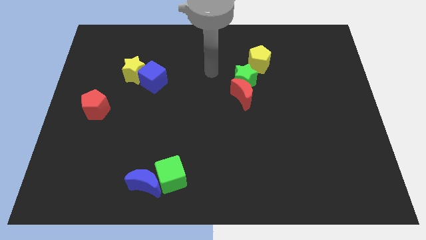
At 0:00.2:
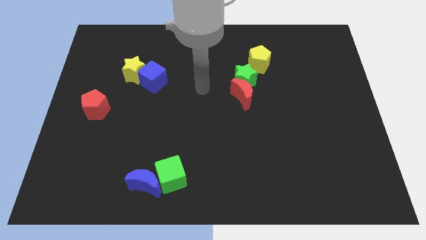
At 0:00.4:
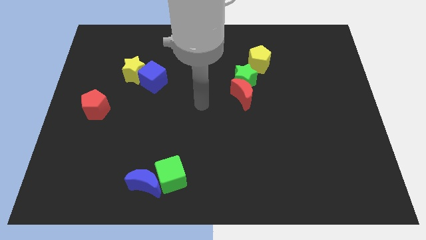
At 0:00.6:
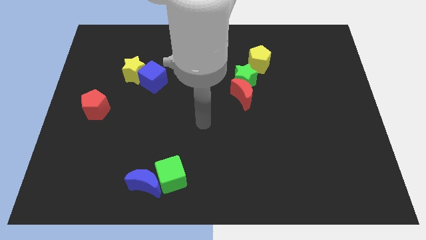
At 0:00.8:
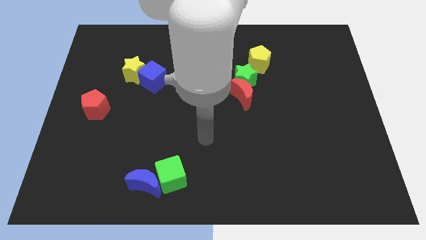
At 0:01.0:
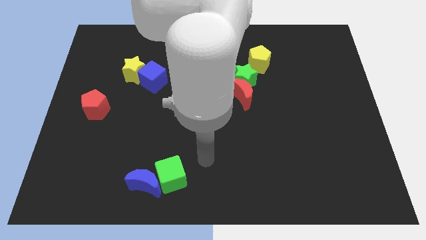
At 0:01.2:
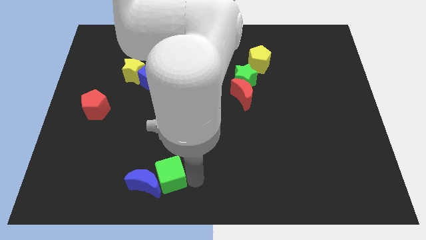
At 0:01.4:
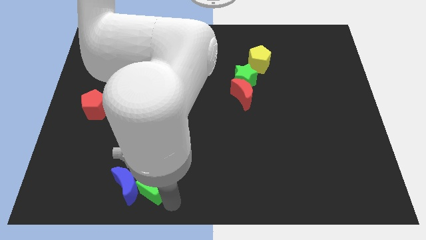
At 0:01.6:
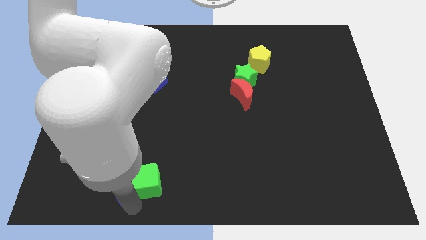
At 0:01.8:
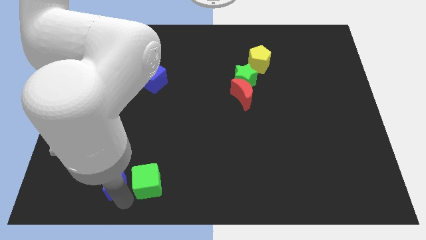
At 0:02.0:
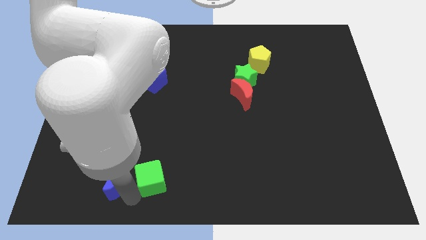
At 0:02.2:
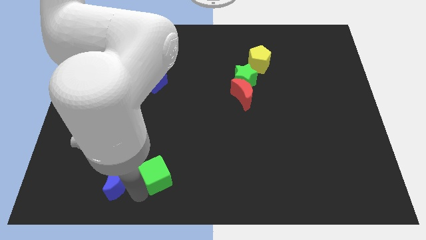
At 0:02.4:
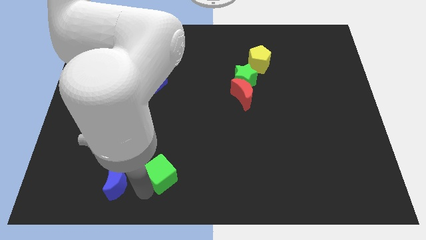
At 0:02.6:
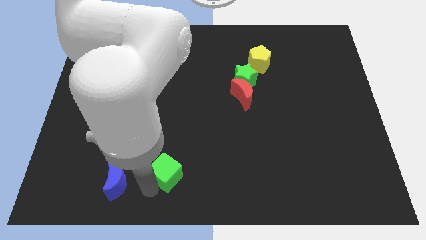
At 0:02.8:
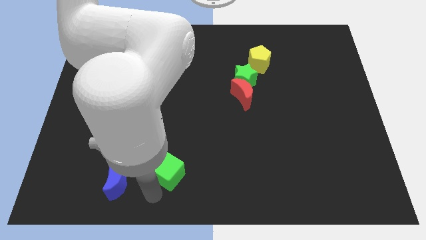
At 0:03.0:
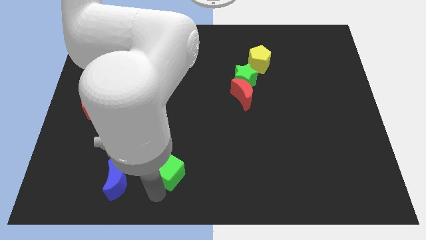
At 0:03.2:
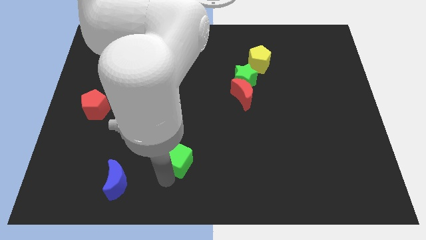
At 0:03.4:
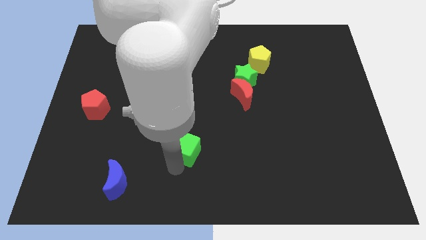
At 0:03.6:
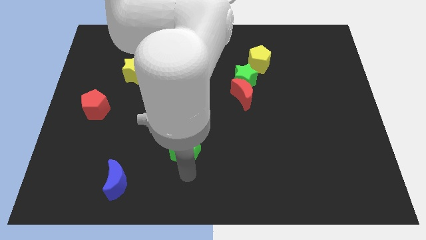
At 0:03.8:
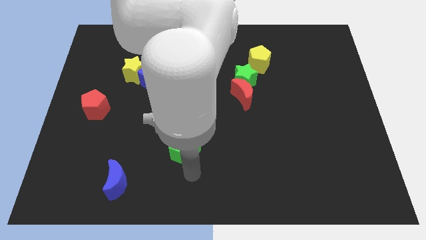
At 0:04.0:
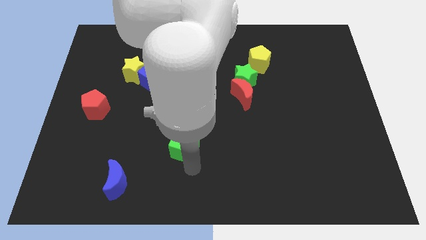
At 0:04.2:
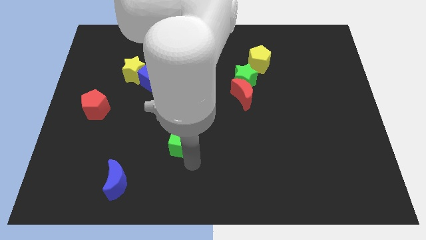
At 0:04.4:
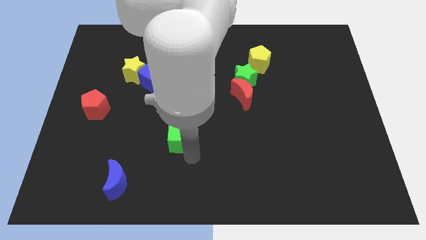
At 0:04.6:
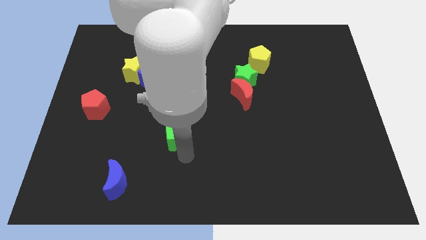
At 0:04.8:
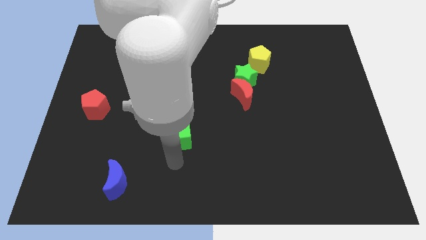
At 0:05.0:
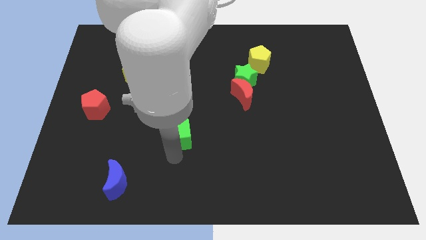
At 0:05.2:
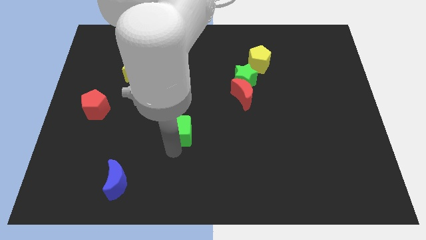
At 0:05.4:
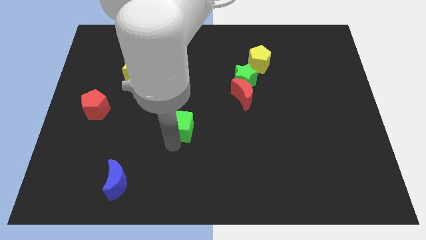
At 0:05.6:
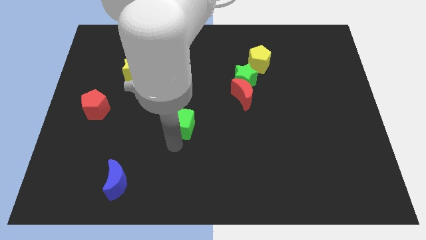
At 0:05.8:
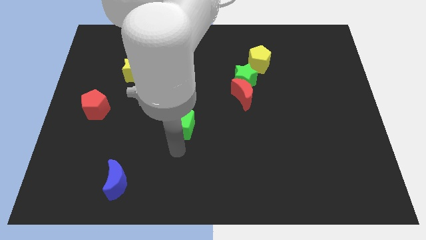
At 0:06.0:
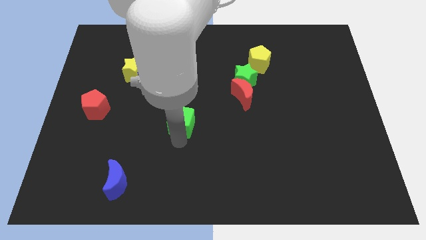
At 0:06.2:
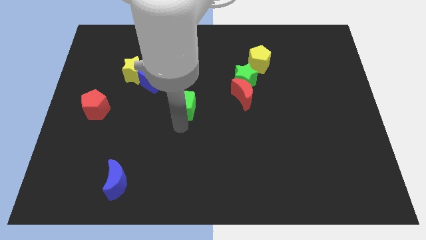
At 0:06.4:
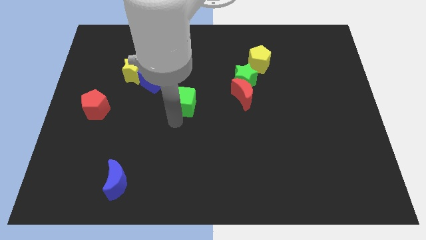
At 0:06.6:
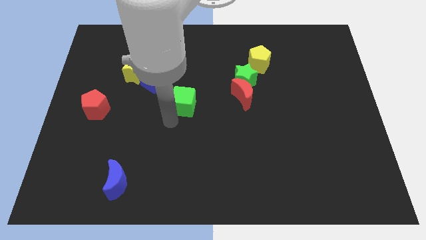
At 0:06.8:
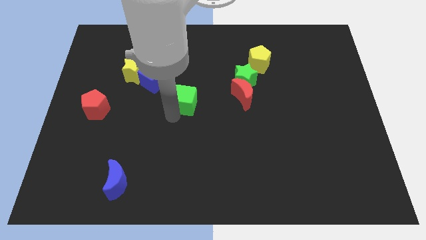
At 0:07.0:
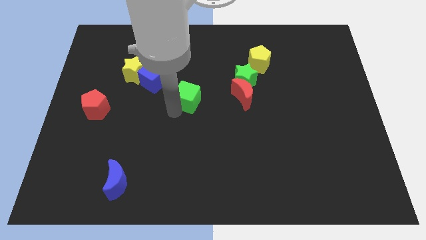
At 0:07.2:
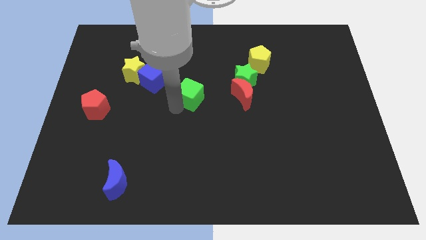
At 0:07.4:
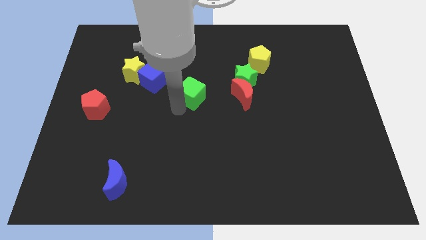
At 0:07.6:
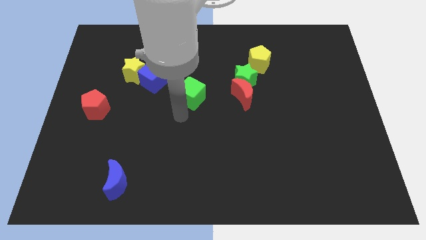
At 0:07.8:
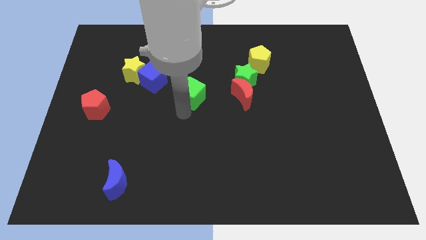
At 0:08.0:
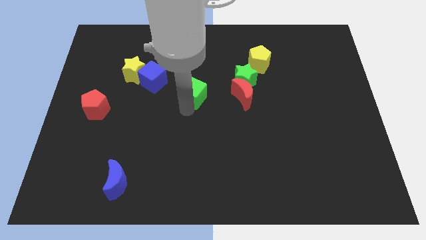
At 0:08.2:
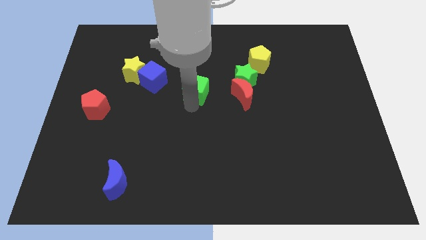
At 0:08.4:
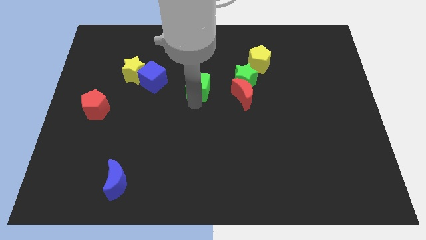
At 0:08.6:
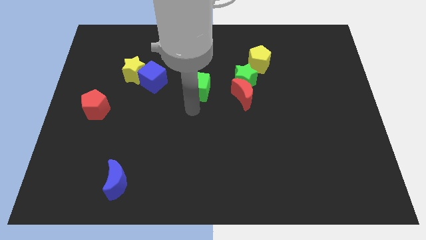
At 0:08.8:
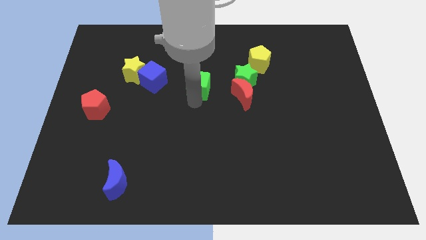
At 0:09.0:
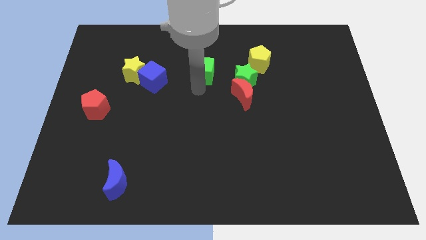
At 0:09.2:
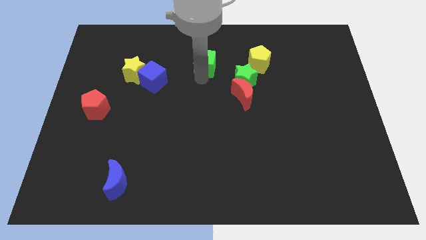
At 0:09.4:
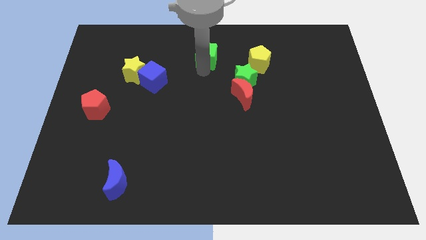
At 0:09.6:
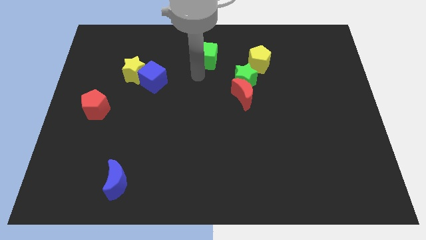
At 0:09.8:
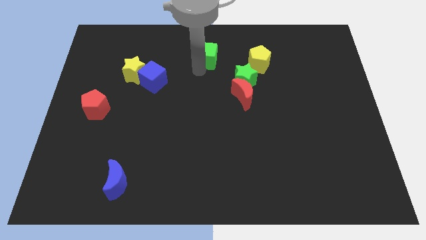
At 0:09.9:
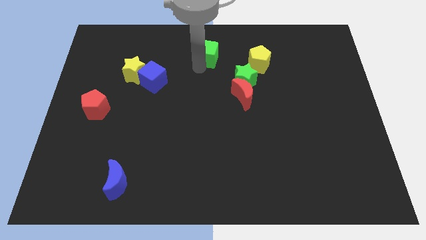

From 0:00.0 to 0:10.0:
move the green cube to the top
